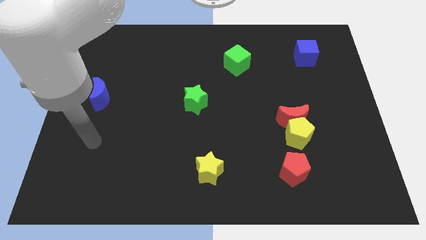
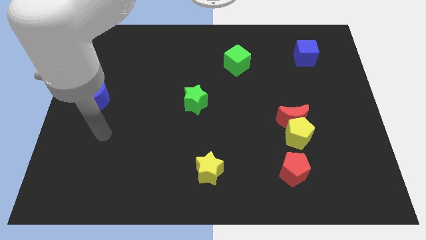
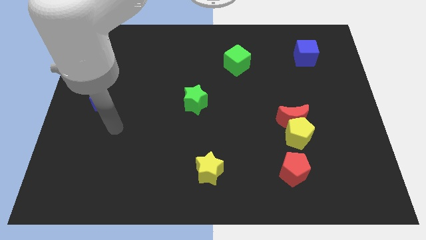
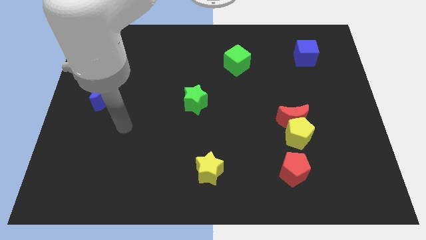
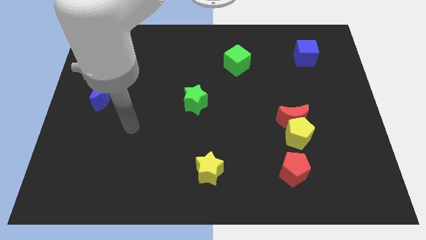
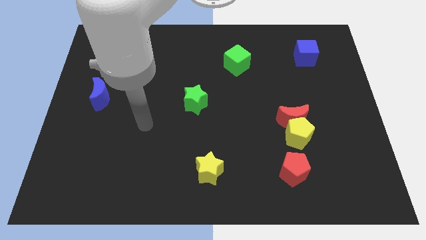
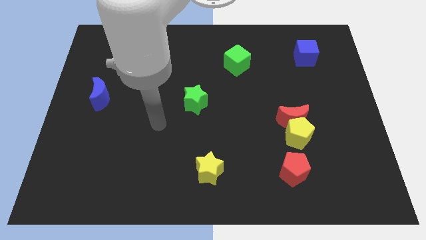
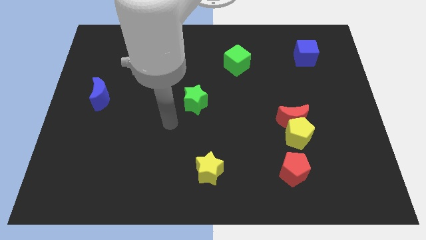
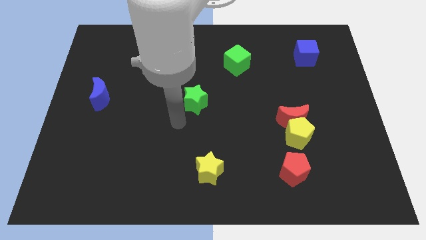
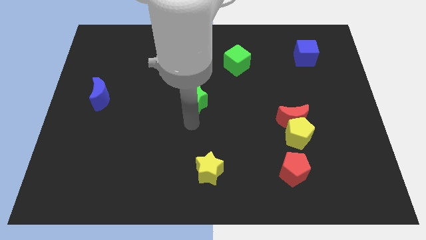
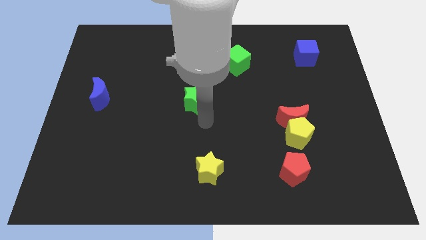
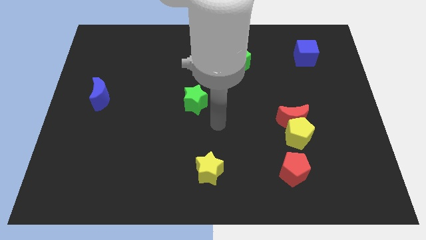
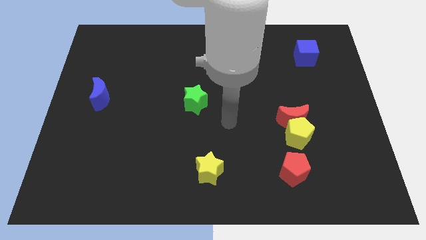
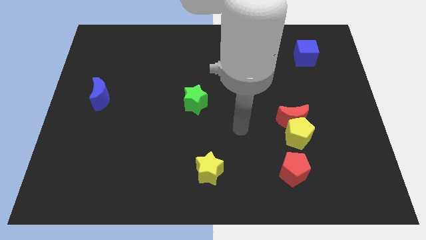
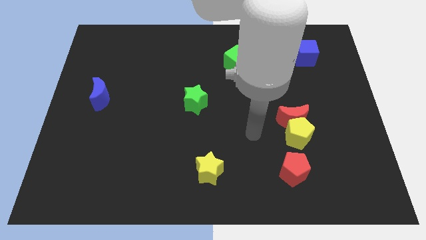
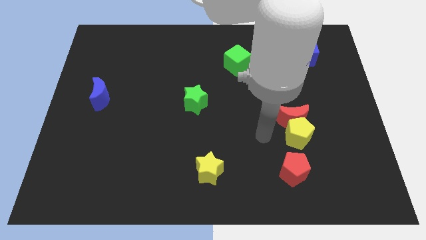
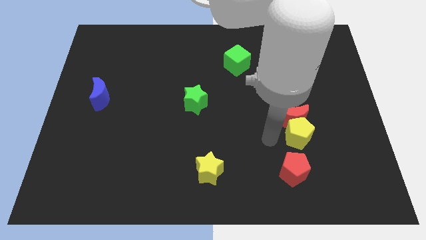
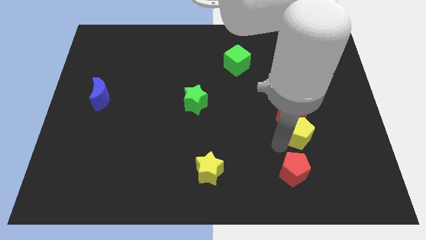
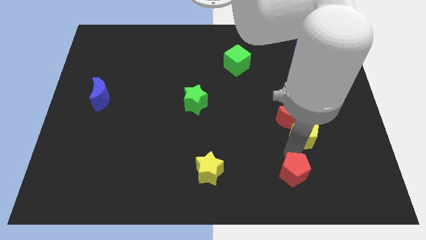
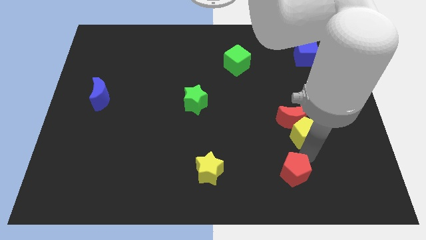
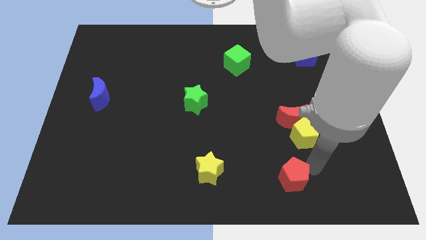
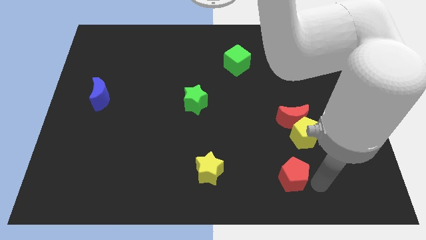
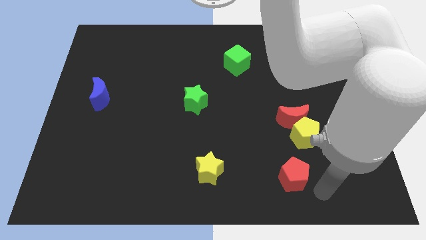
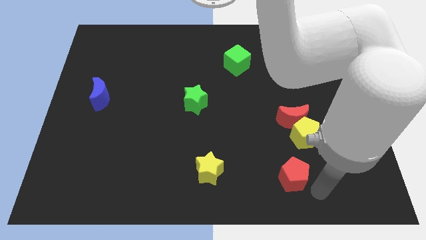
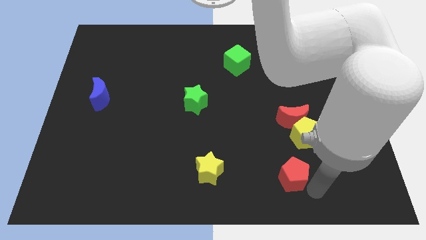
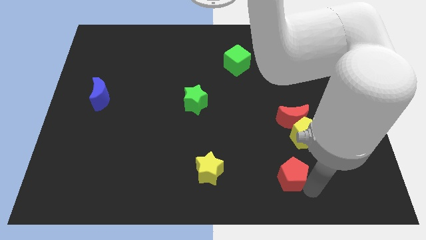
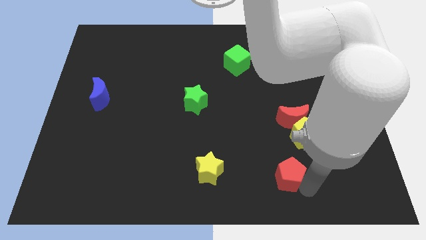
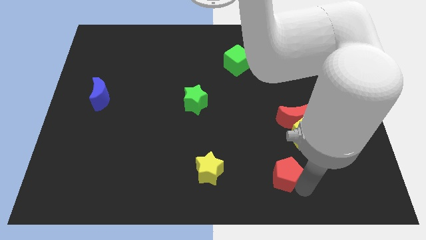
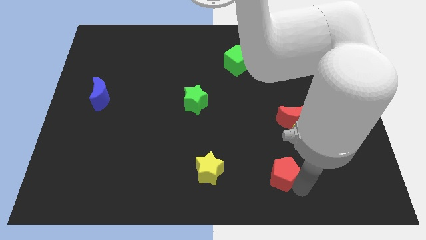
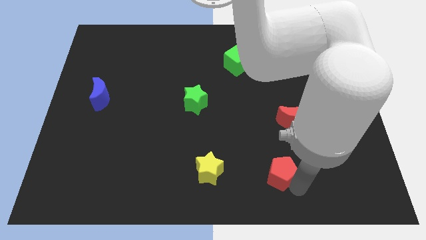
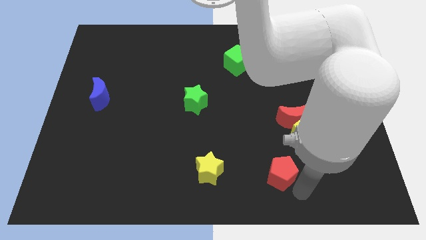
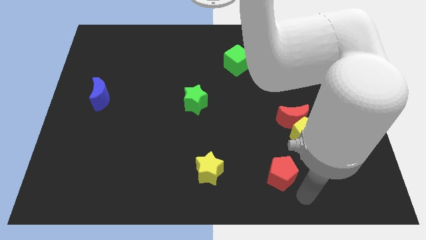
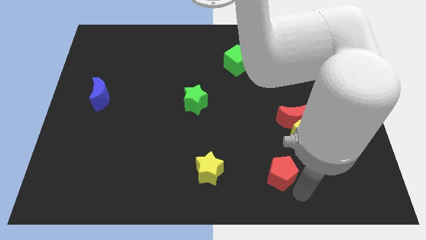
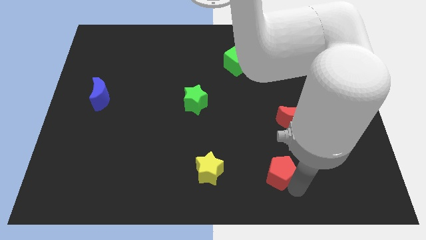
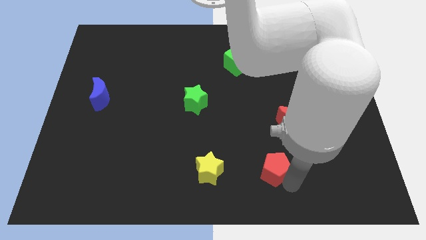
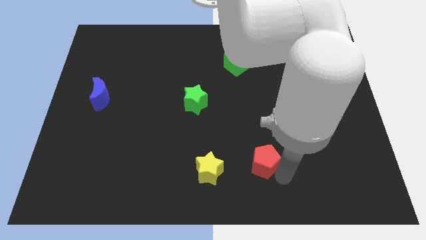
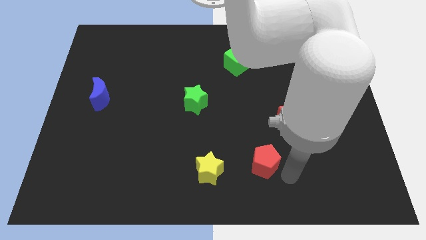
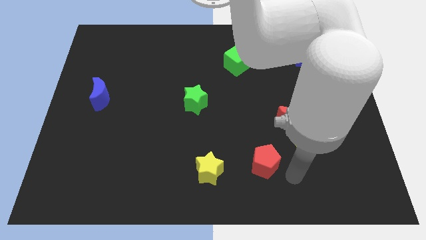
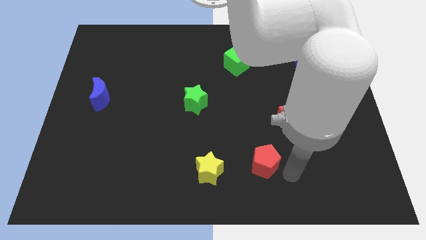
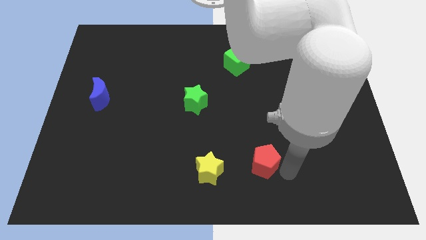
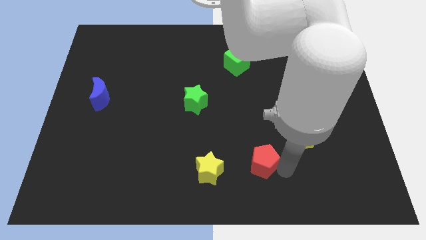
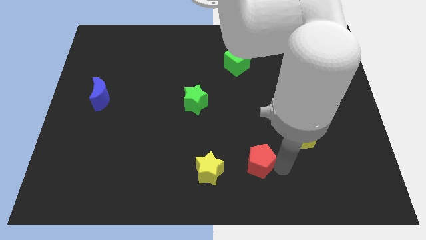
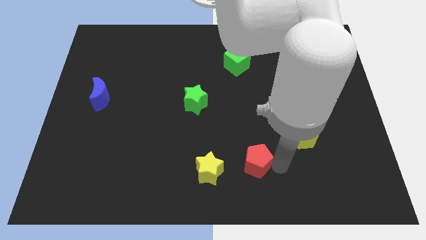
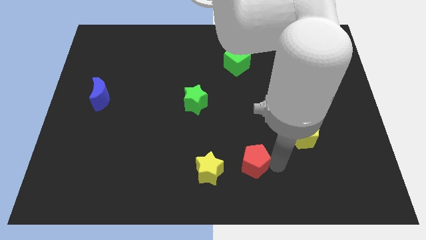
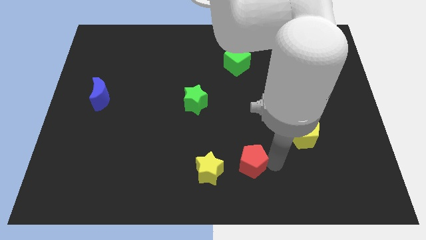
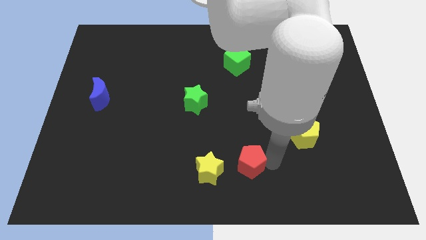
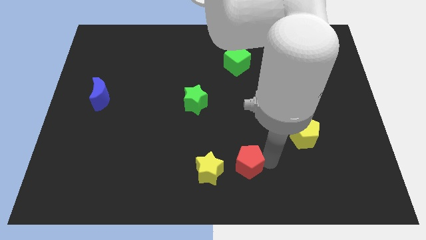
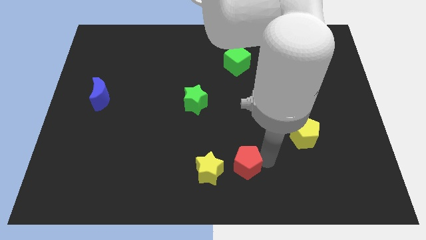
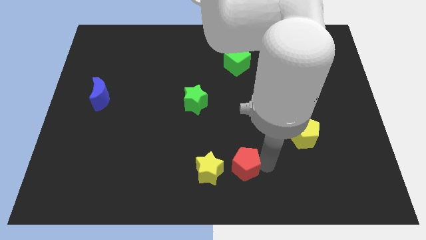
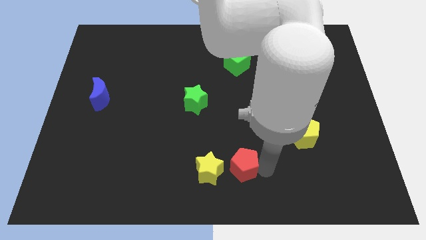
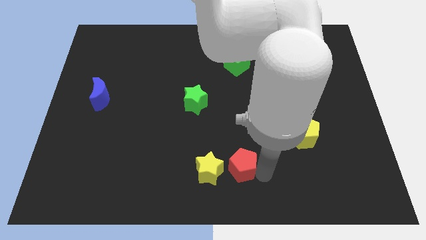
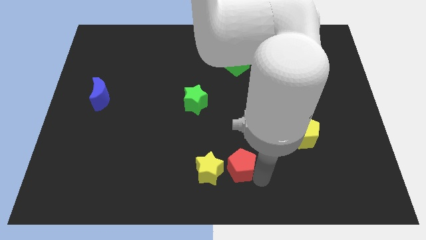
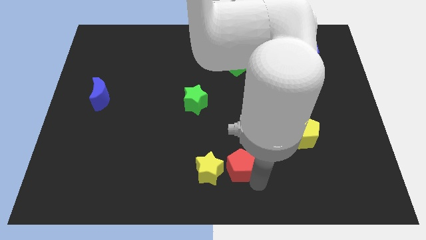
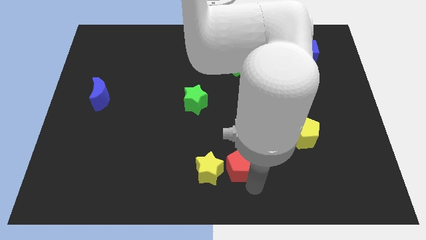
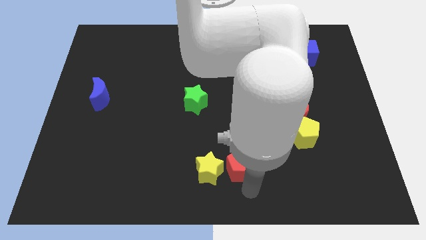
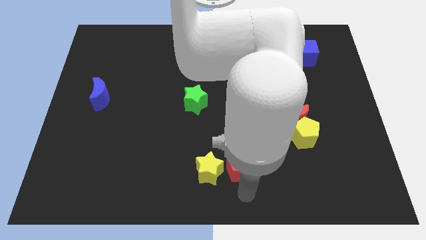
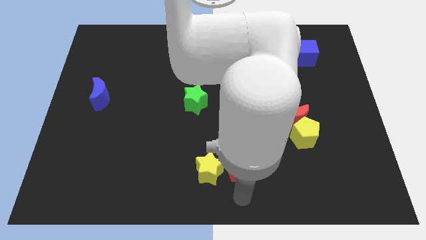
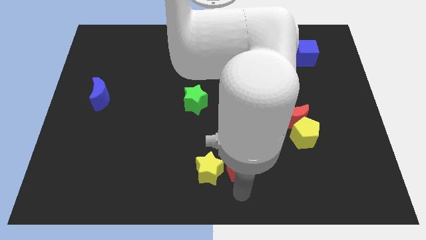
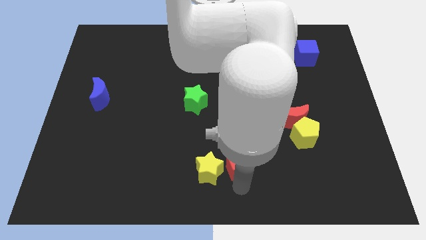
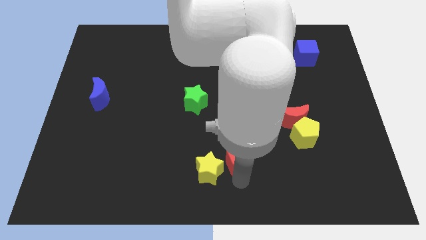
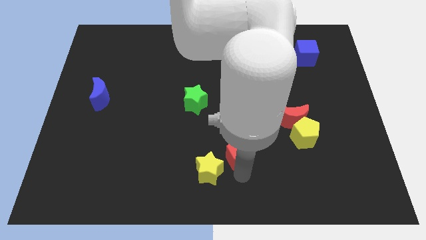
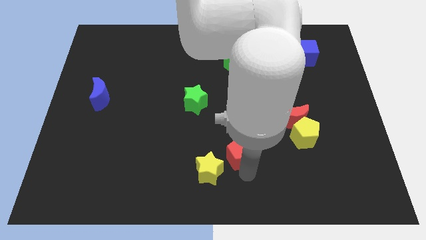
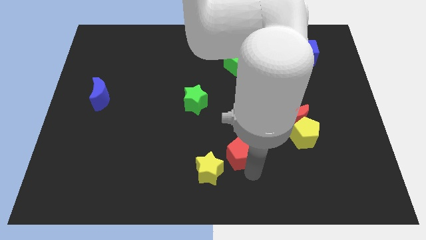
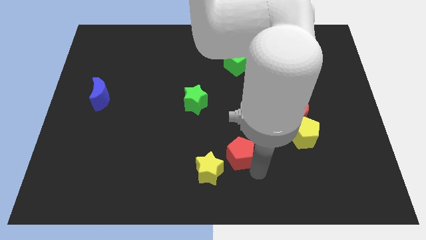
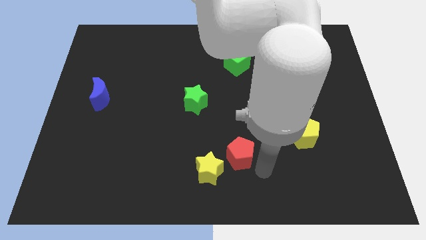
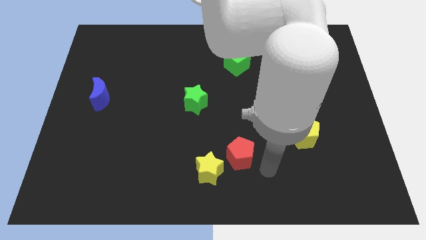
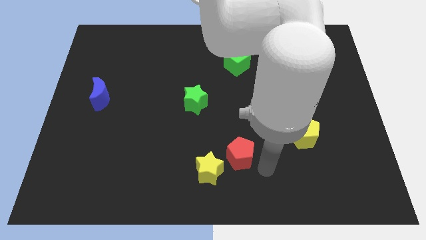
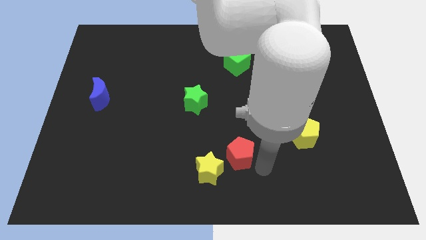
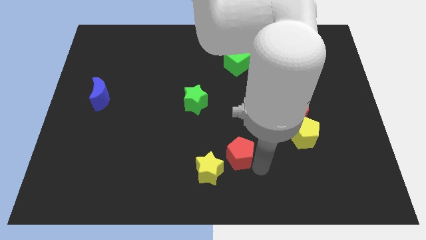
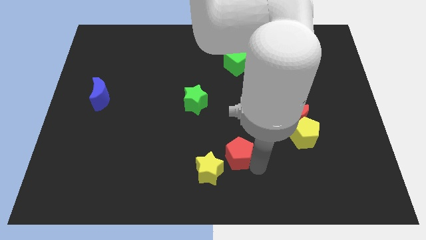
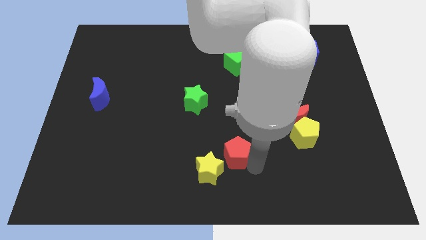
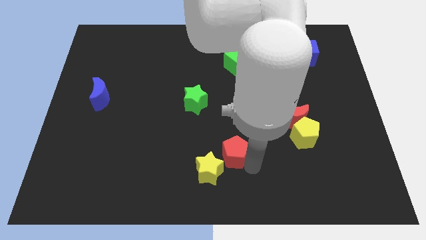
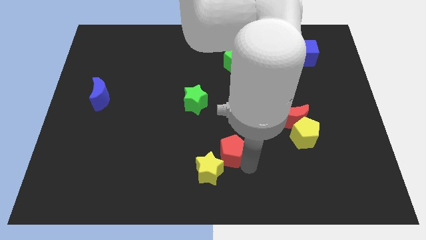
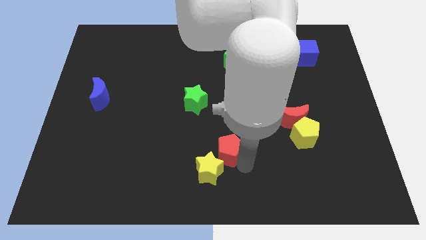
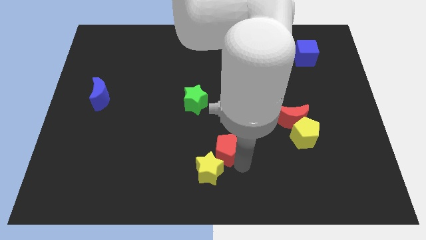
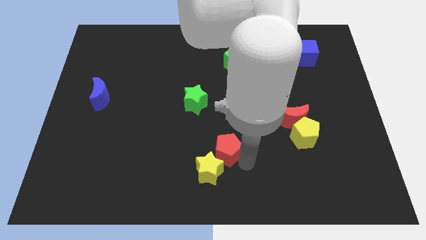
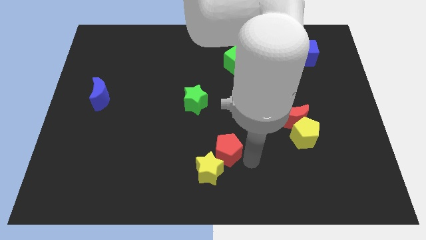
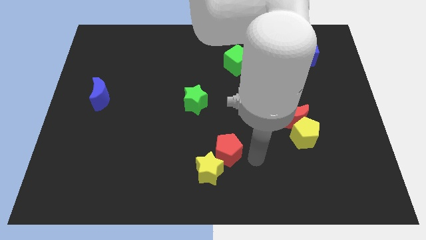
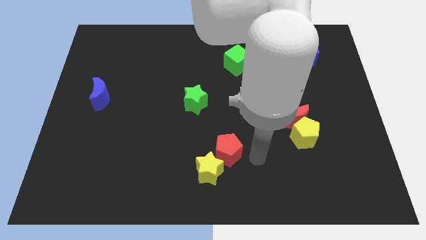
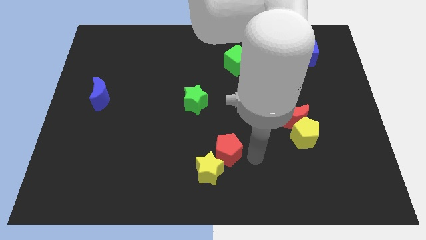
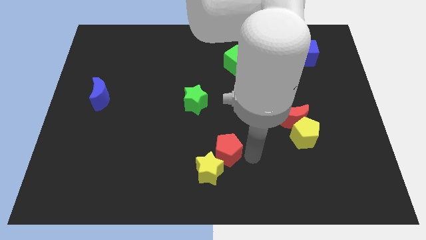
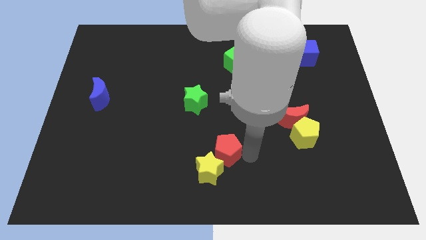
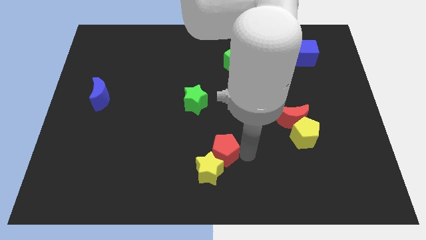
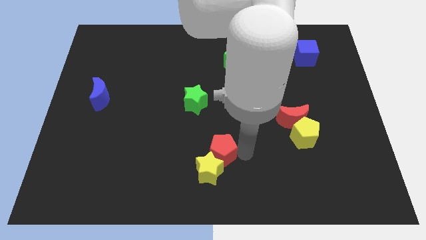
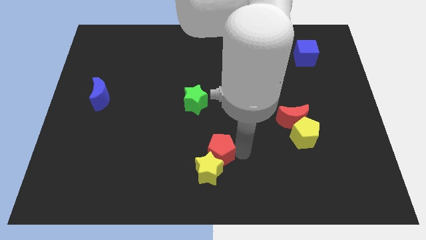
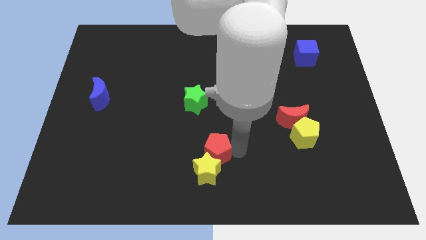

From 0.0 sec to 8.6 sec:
move the red pentagon diagonally up and to the left of the yellow star
